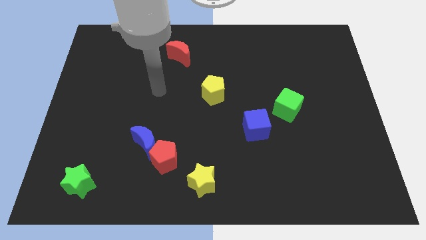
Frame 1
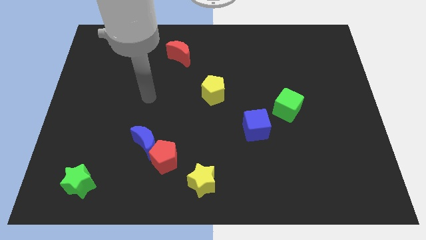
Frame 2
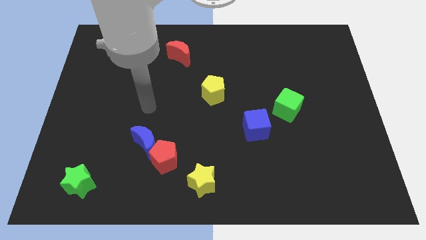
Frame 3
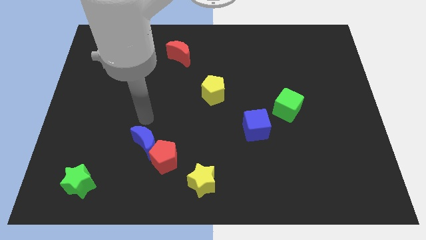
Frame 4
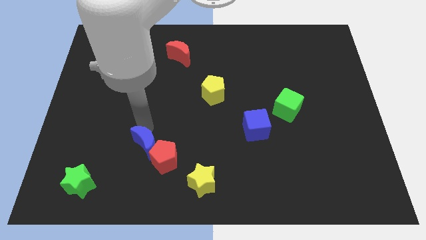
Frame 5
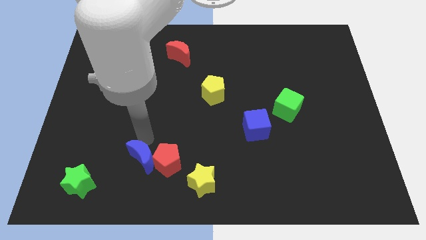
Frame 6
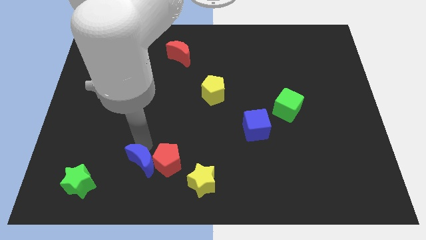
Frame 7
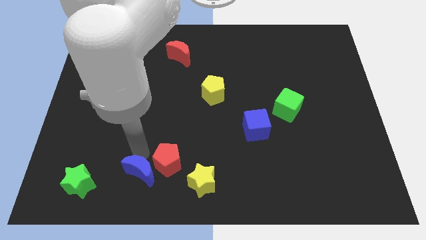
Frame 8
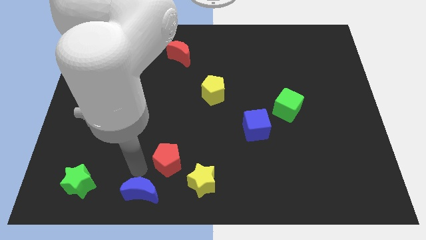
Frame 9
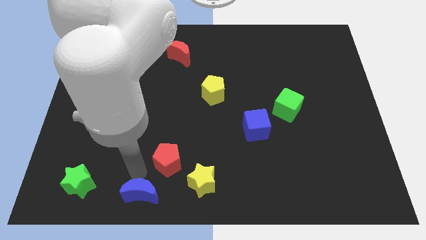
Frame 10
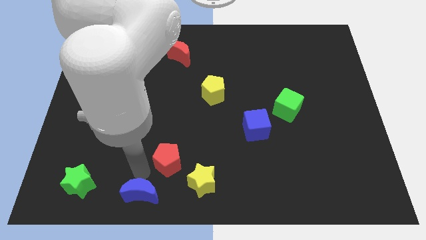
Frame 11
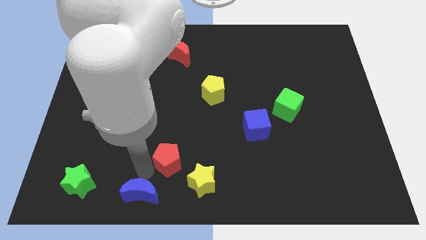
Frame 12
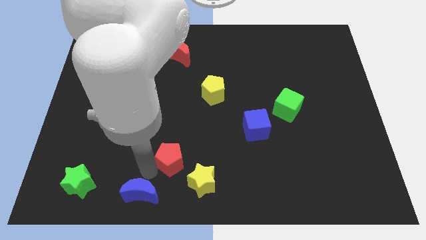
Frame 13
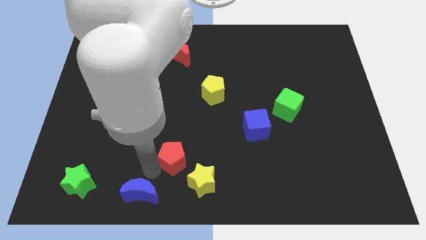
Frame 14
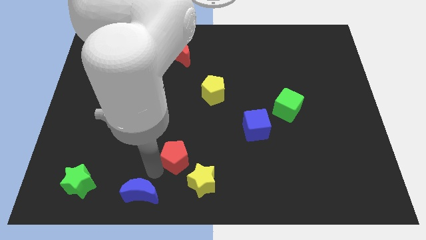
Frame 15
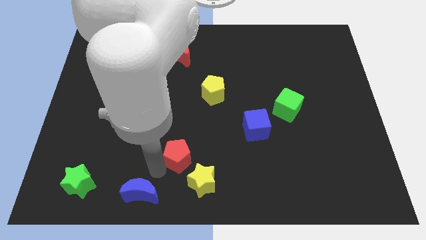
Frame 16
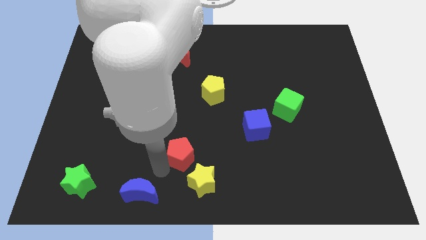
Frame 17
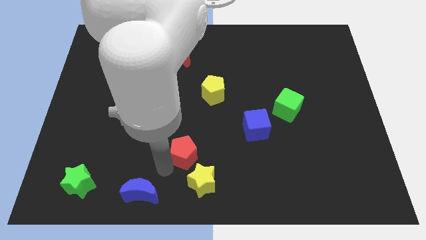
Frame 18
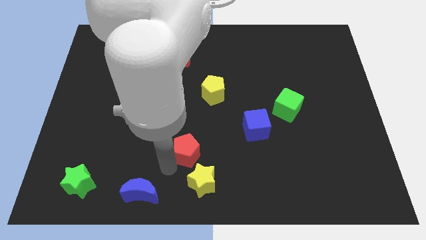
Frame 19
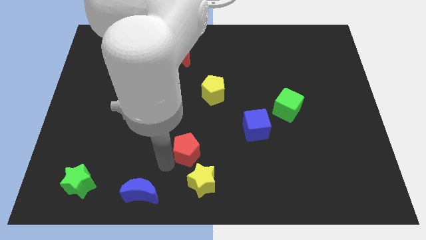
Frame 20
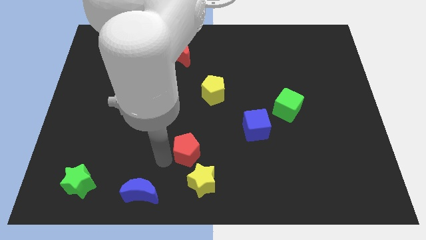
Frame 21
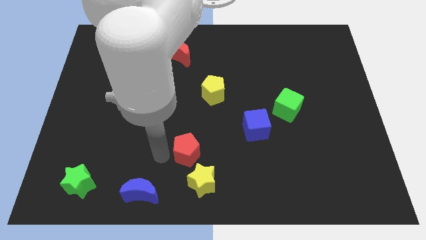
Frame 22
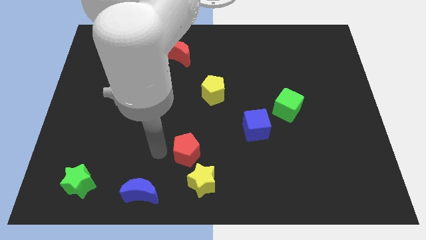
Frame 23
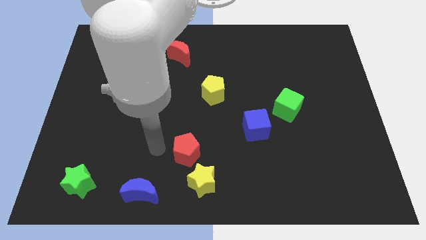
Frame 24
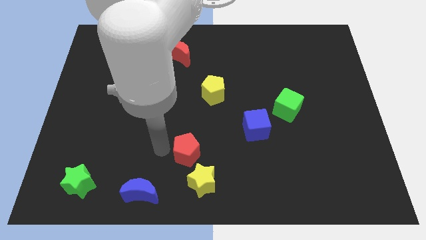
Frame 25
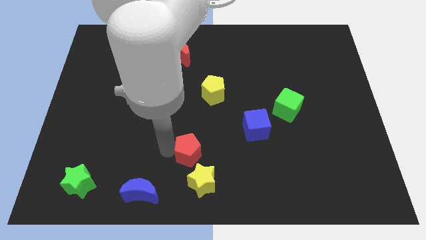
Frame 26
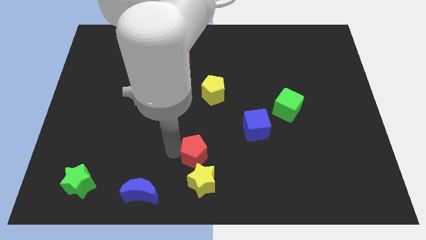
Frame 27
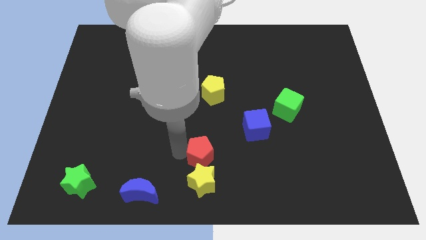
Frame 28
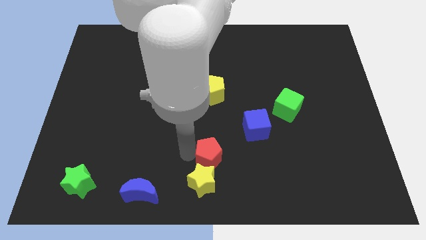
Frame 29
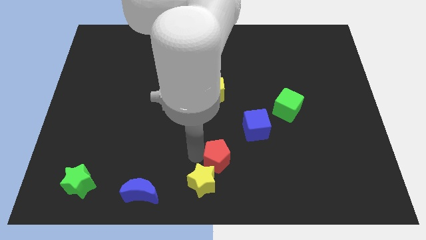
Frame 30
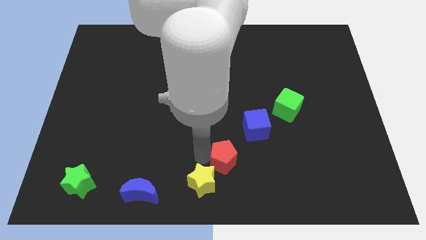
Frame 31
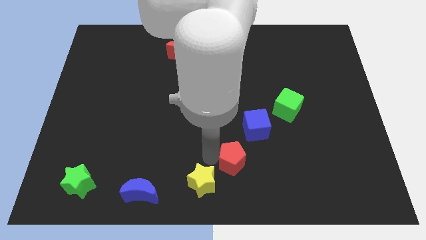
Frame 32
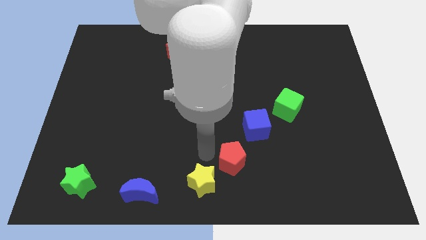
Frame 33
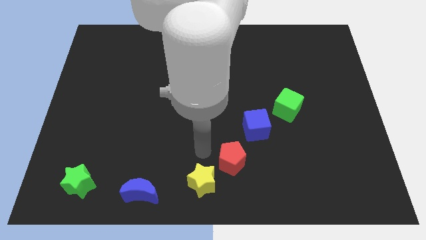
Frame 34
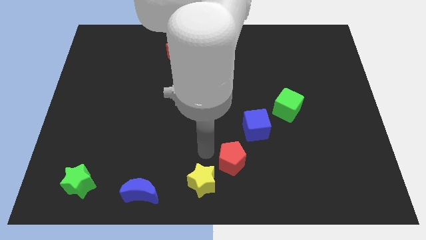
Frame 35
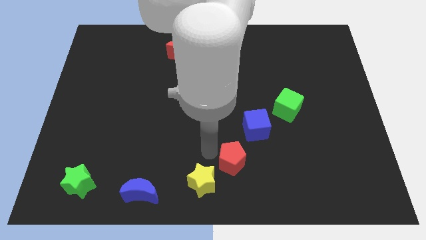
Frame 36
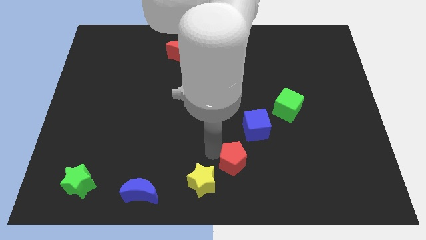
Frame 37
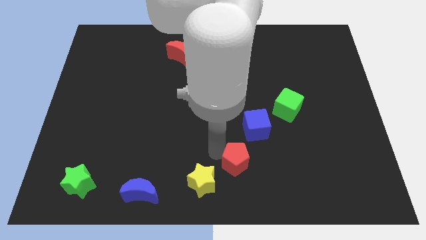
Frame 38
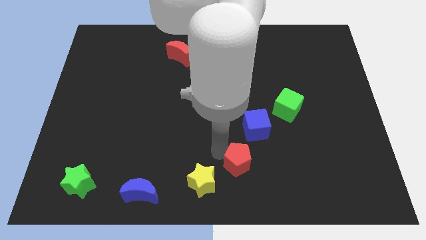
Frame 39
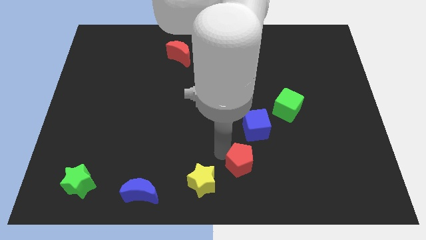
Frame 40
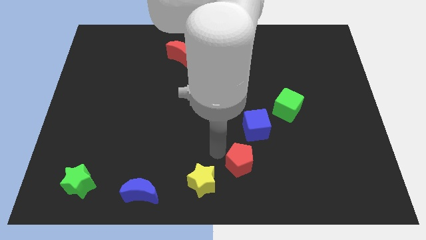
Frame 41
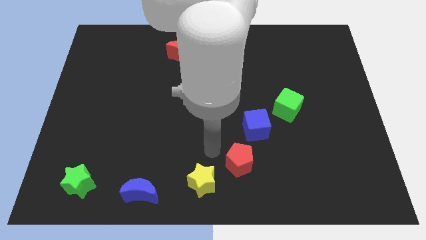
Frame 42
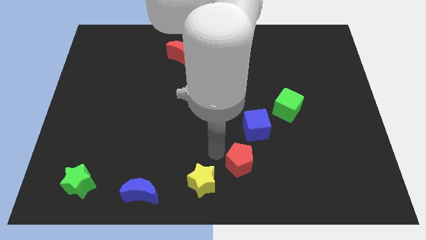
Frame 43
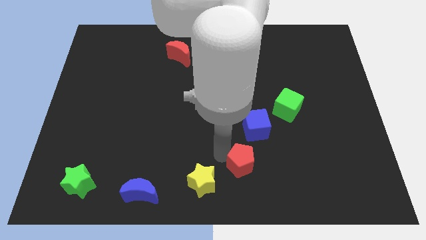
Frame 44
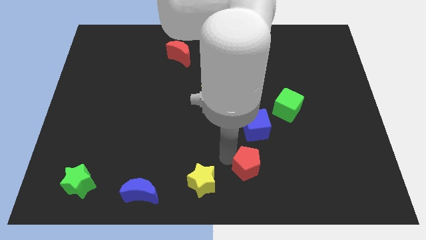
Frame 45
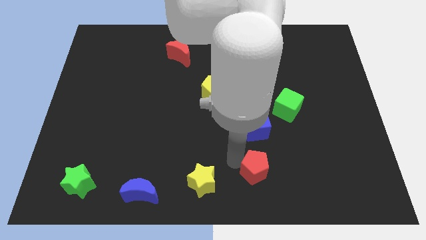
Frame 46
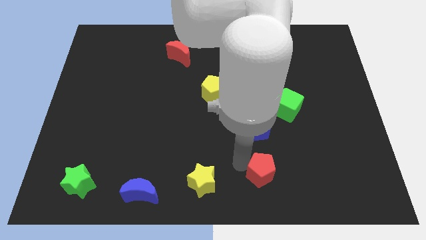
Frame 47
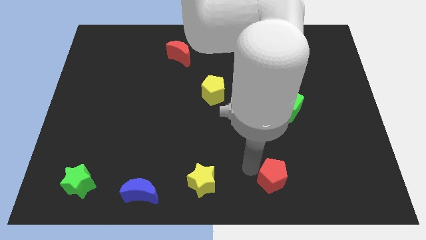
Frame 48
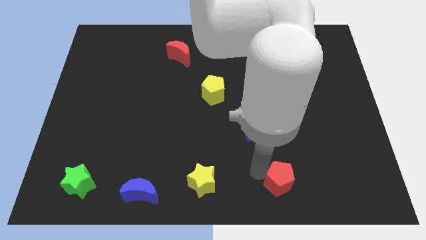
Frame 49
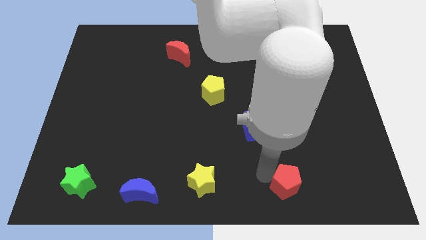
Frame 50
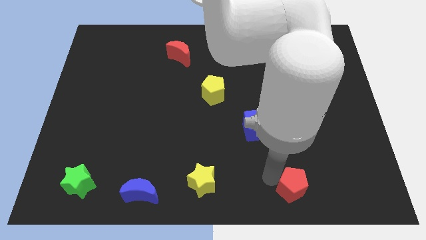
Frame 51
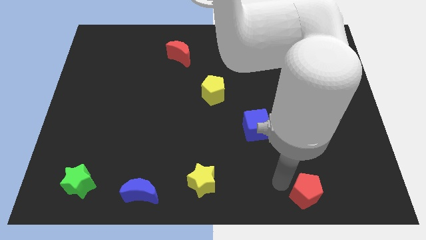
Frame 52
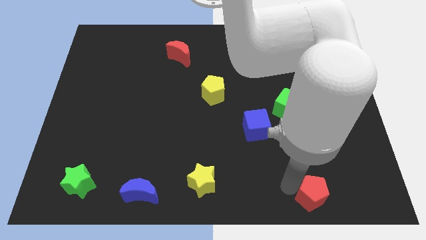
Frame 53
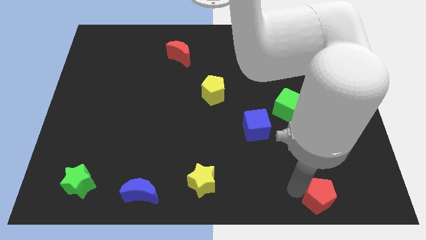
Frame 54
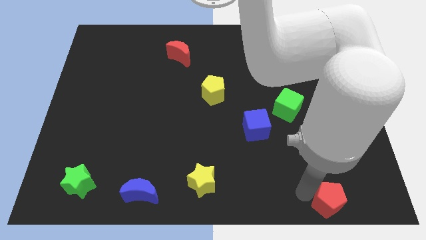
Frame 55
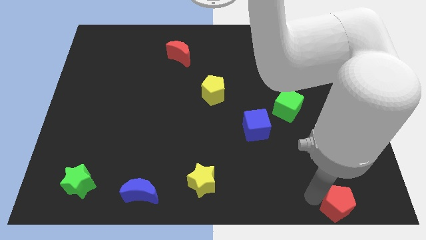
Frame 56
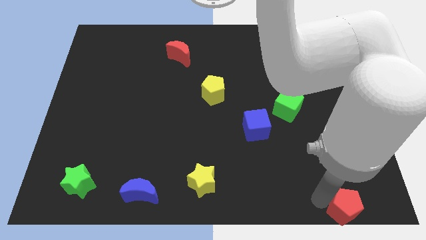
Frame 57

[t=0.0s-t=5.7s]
put the red pentagon to the bottom right corner

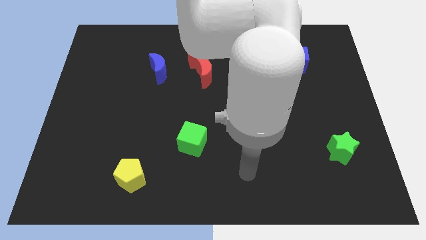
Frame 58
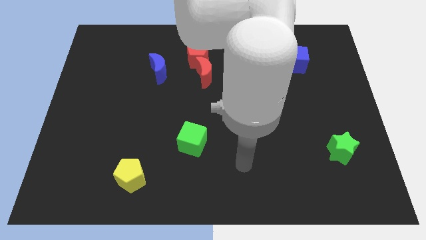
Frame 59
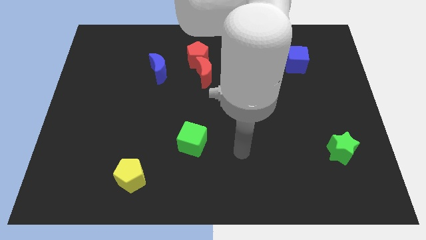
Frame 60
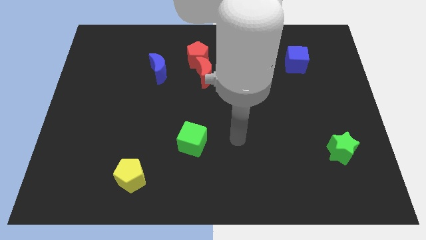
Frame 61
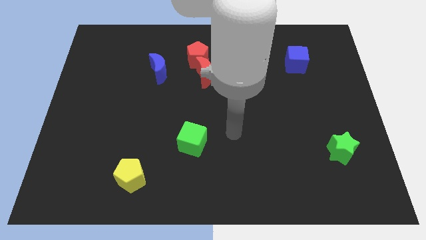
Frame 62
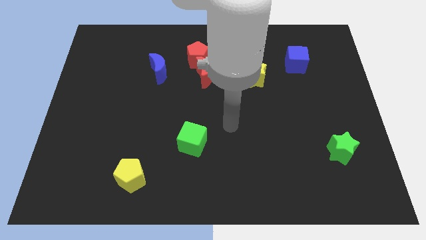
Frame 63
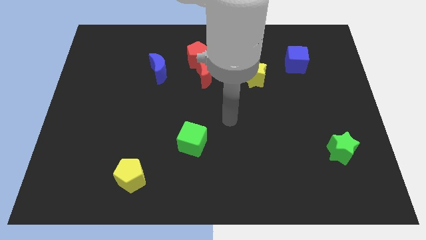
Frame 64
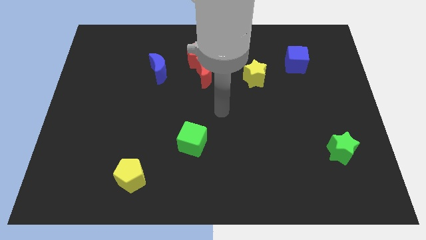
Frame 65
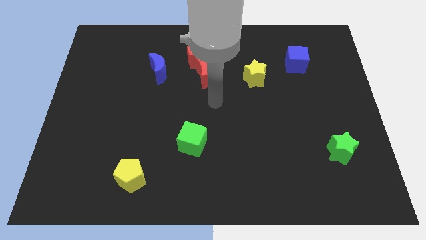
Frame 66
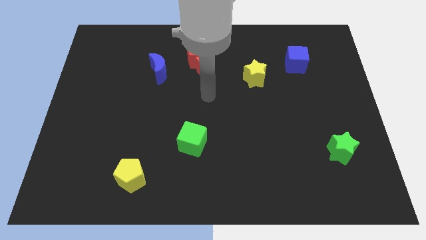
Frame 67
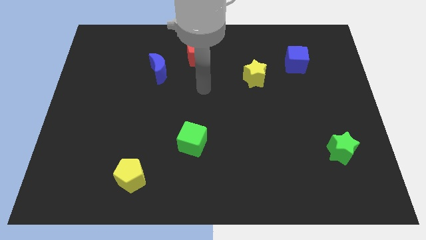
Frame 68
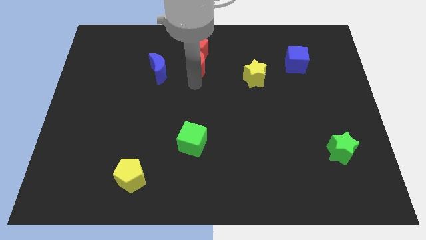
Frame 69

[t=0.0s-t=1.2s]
move the red pentagon to the top

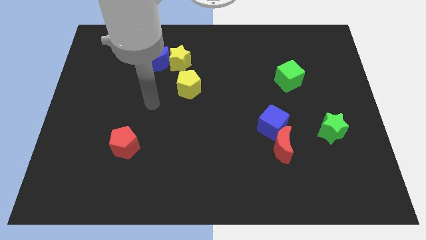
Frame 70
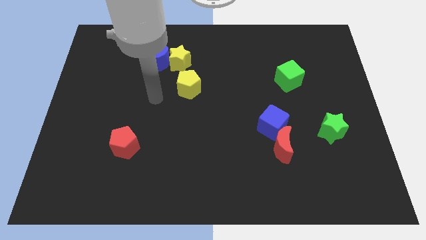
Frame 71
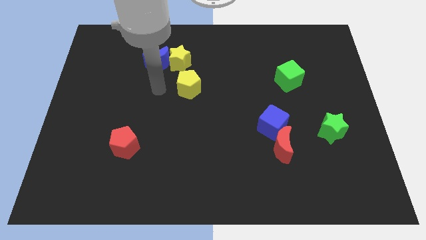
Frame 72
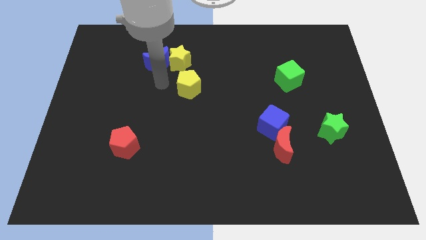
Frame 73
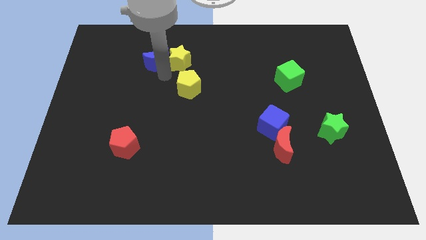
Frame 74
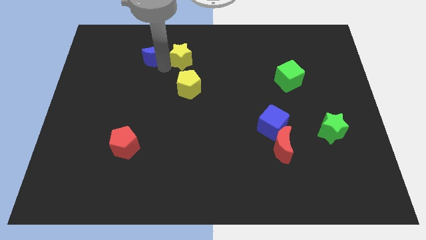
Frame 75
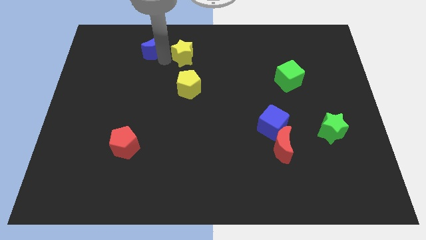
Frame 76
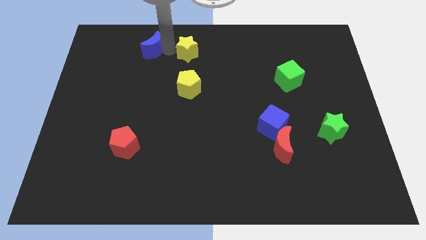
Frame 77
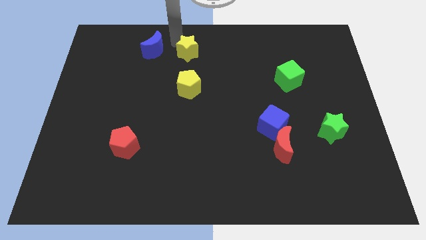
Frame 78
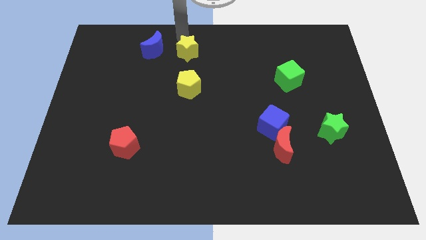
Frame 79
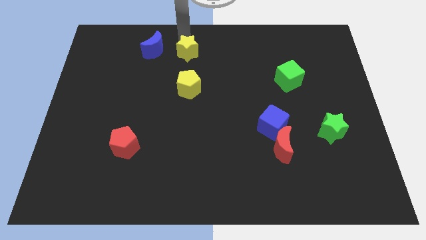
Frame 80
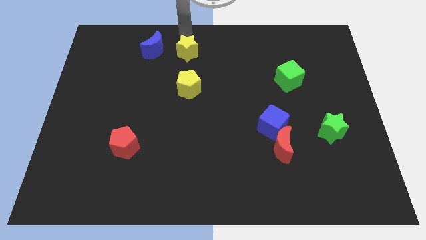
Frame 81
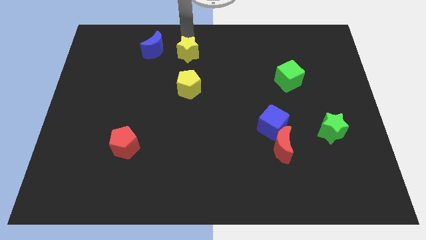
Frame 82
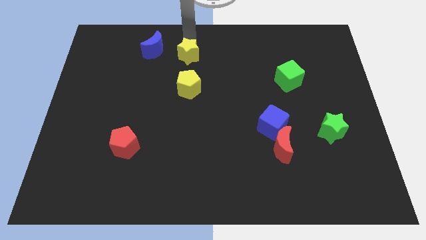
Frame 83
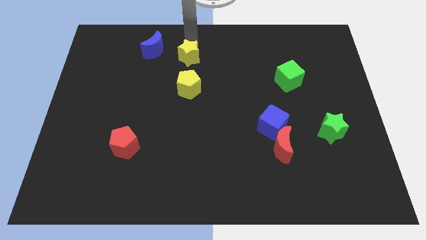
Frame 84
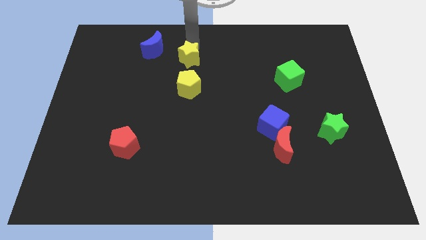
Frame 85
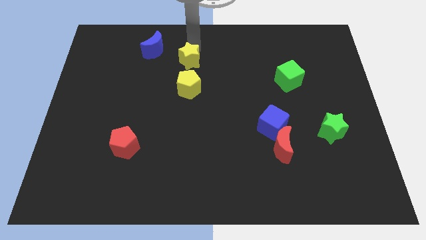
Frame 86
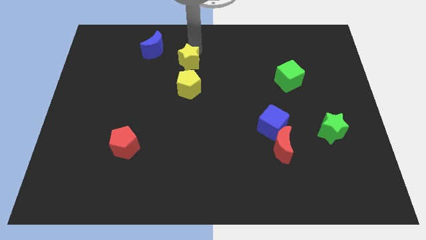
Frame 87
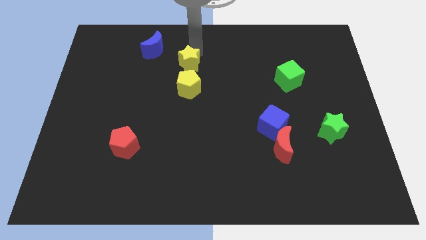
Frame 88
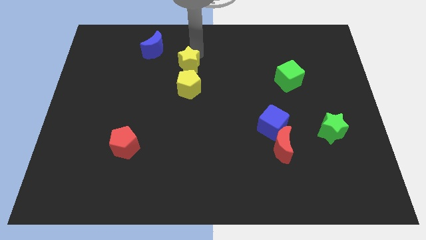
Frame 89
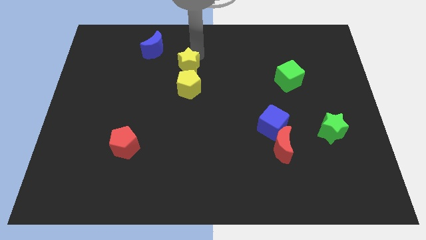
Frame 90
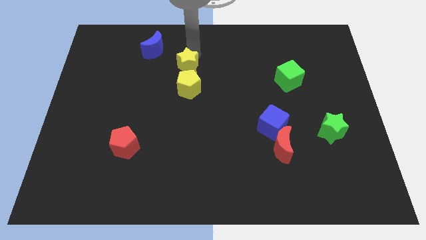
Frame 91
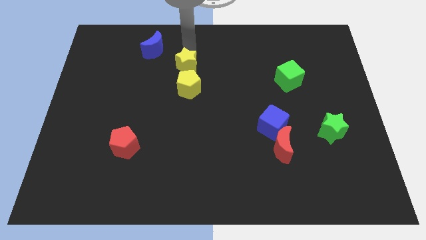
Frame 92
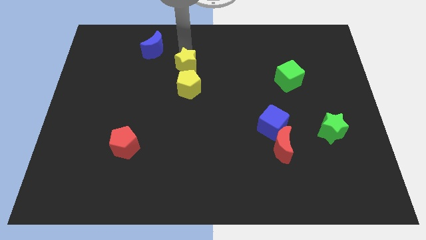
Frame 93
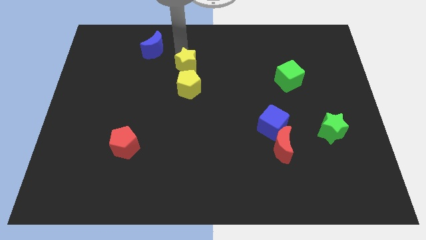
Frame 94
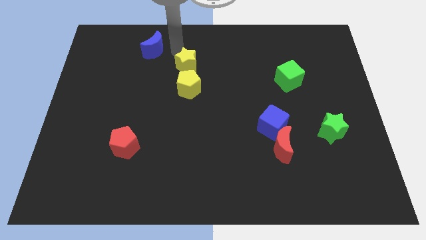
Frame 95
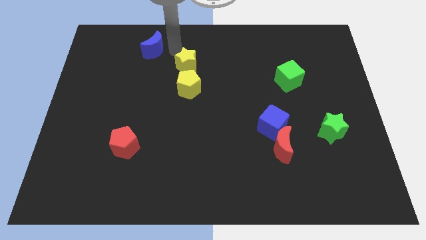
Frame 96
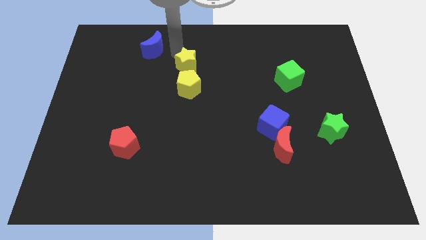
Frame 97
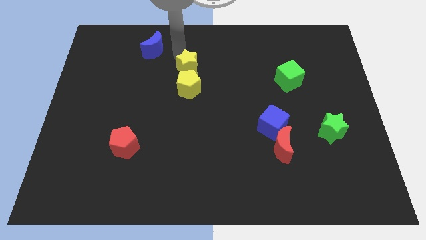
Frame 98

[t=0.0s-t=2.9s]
put the yellow star to the center
